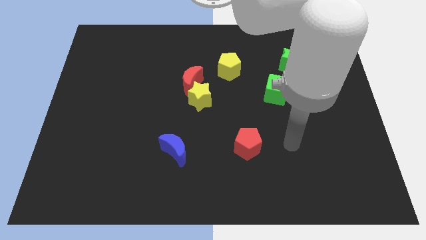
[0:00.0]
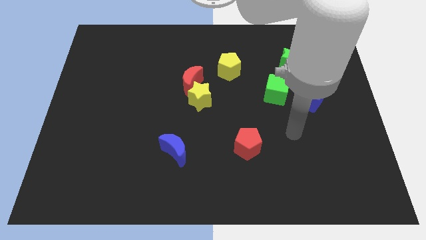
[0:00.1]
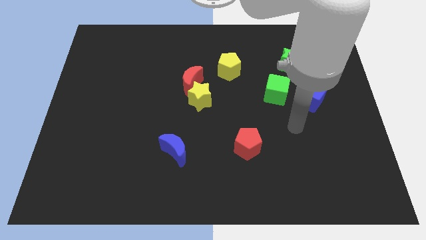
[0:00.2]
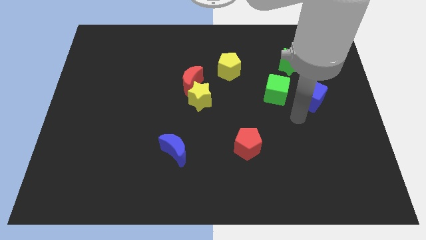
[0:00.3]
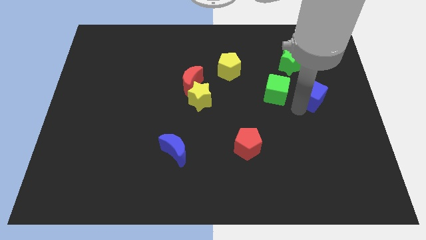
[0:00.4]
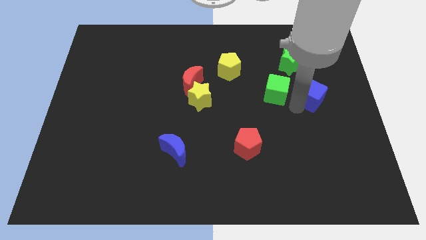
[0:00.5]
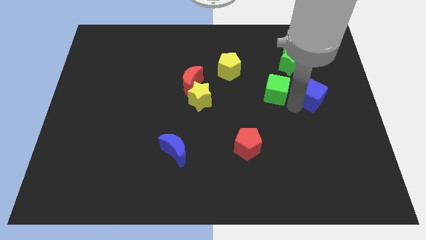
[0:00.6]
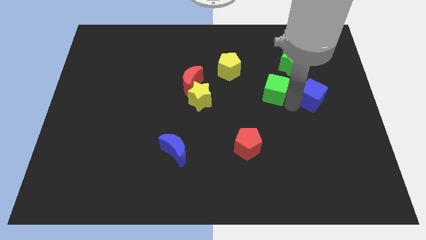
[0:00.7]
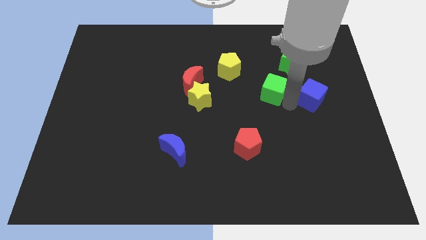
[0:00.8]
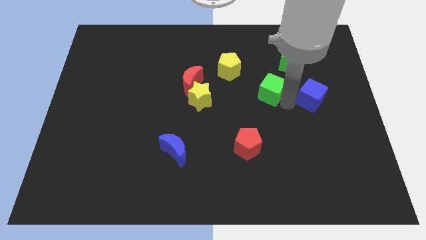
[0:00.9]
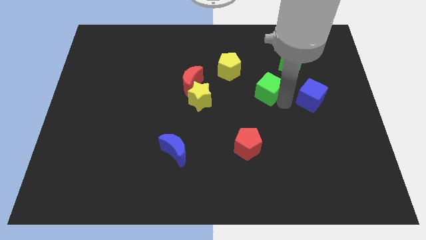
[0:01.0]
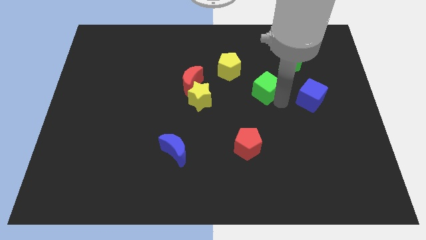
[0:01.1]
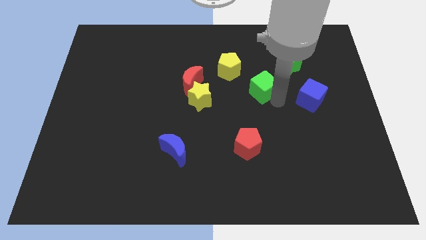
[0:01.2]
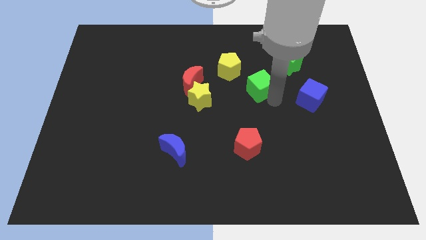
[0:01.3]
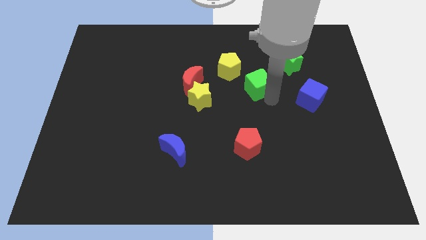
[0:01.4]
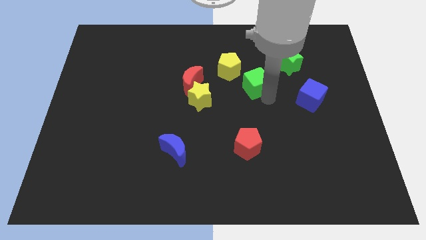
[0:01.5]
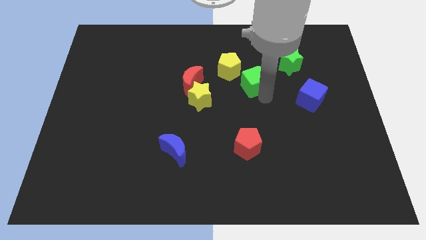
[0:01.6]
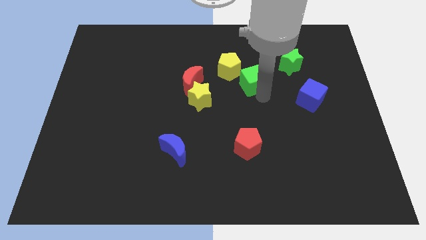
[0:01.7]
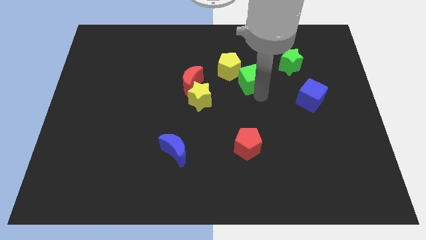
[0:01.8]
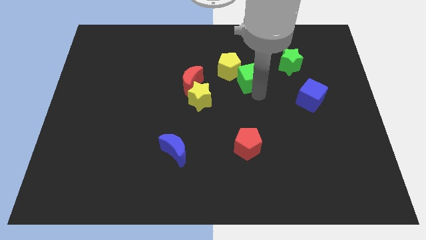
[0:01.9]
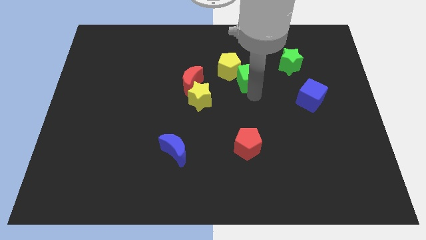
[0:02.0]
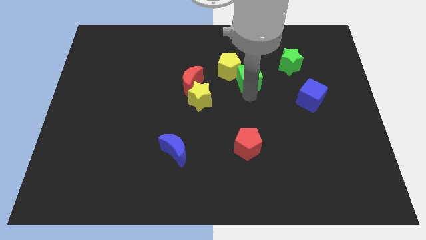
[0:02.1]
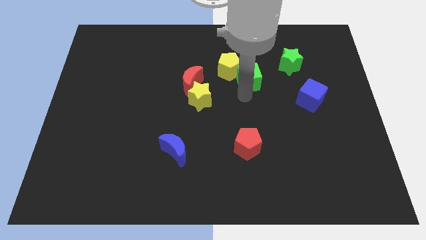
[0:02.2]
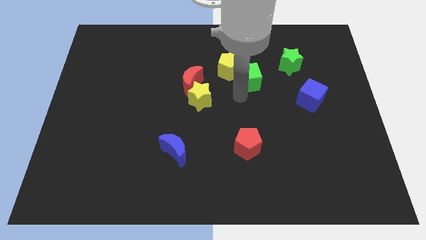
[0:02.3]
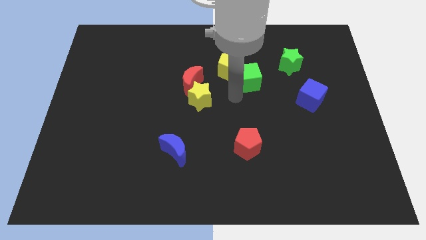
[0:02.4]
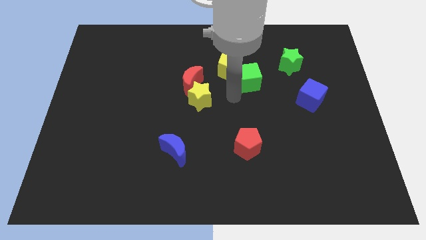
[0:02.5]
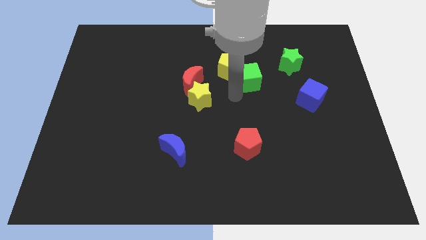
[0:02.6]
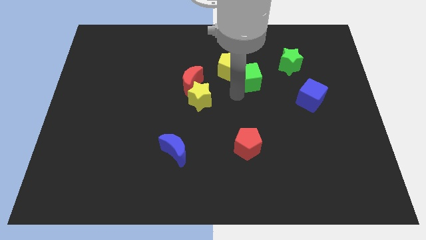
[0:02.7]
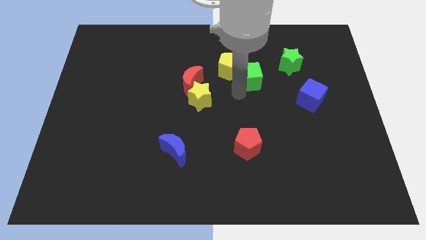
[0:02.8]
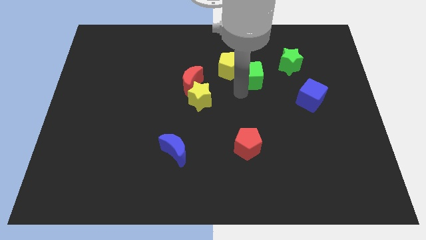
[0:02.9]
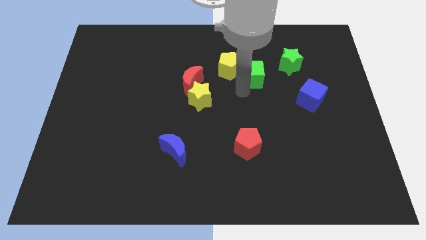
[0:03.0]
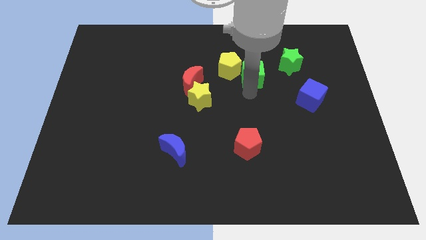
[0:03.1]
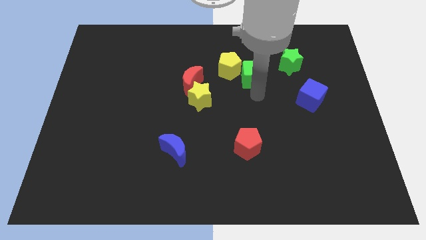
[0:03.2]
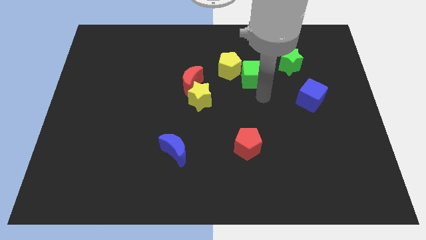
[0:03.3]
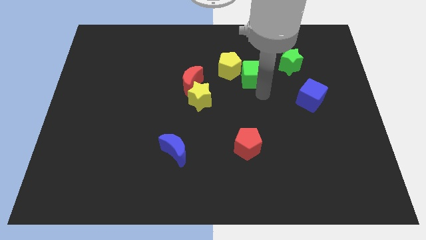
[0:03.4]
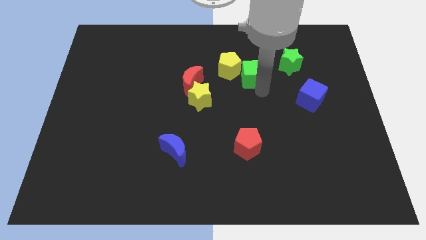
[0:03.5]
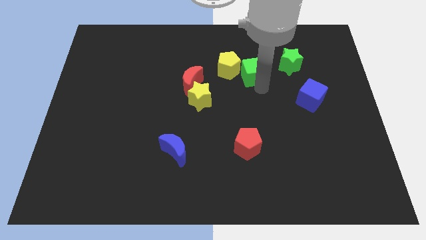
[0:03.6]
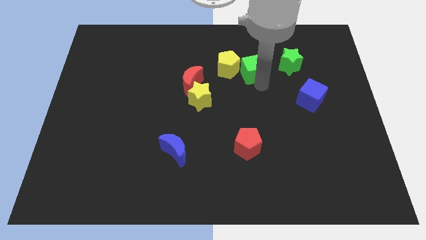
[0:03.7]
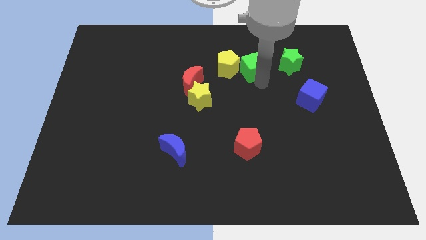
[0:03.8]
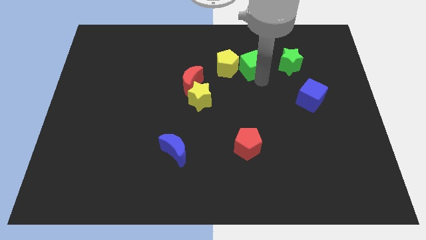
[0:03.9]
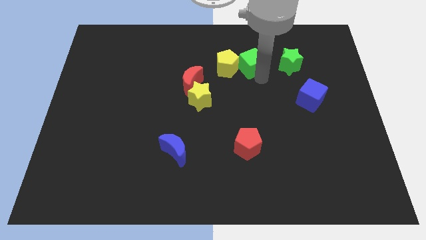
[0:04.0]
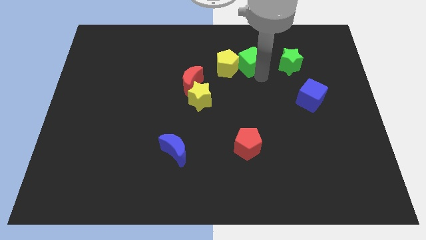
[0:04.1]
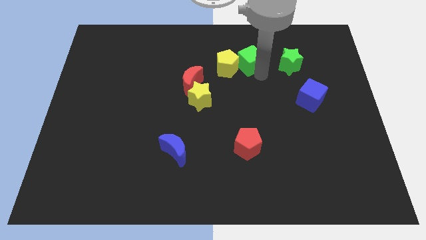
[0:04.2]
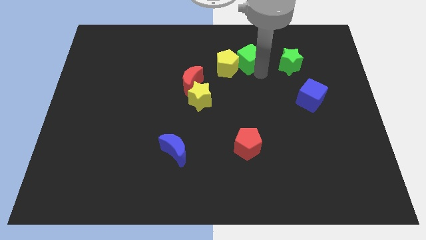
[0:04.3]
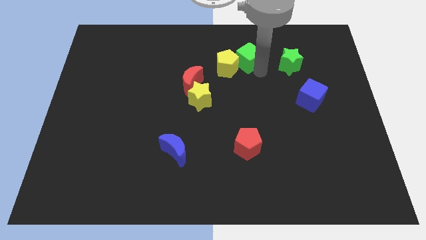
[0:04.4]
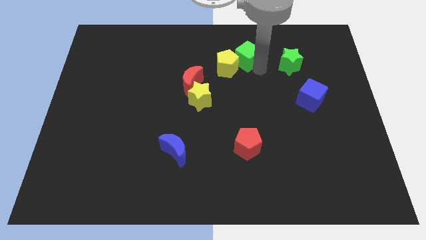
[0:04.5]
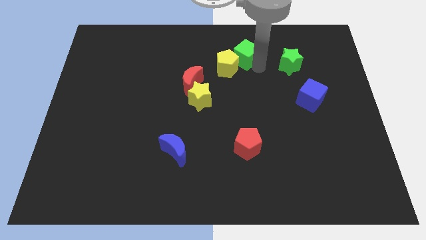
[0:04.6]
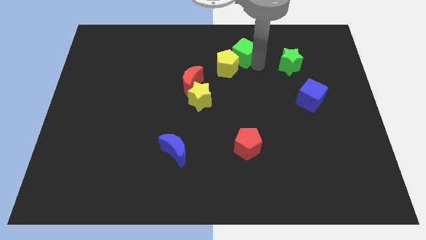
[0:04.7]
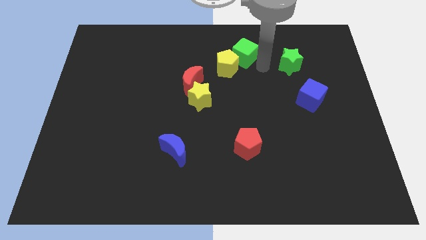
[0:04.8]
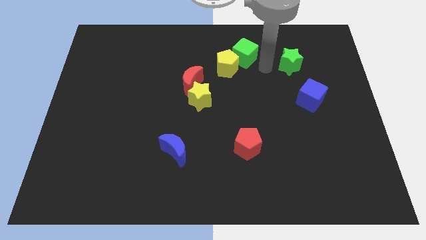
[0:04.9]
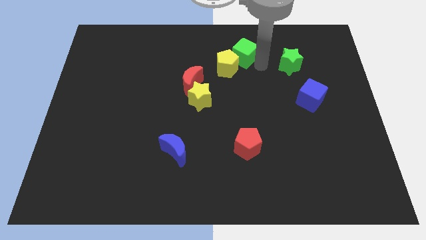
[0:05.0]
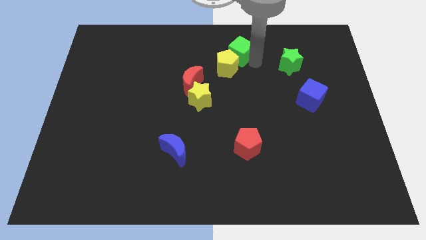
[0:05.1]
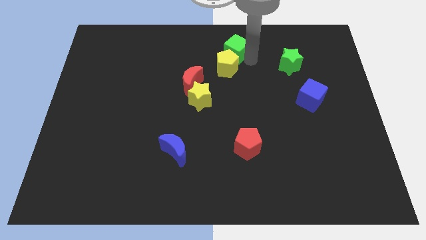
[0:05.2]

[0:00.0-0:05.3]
push the green cube to the top side
